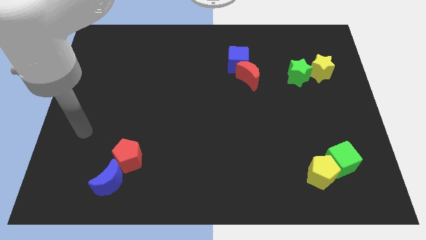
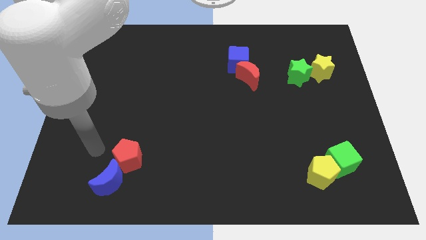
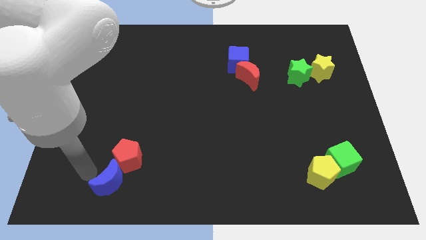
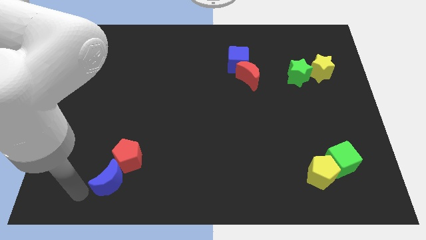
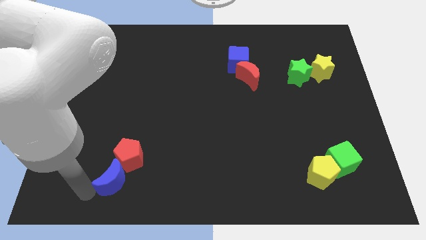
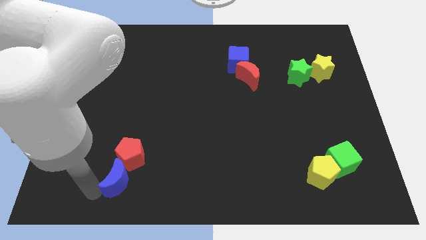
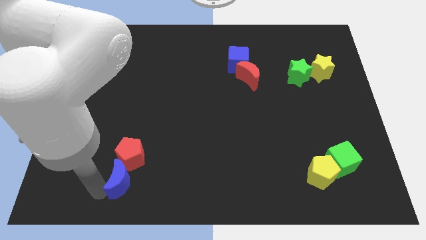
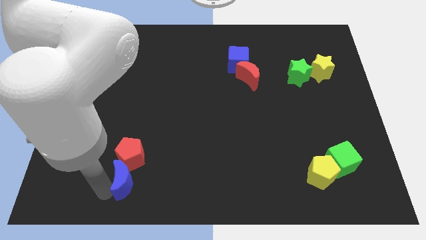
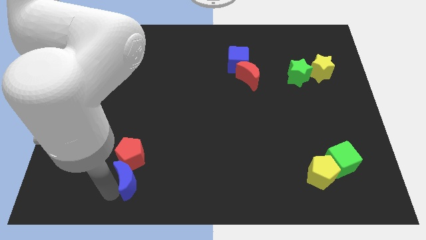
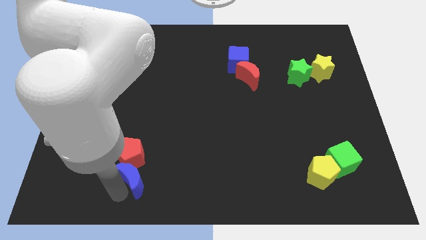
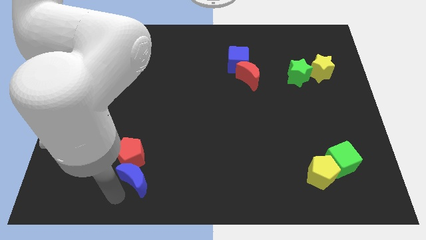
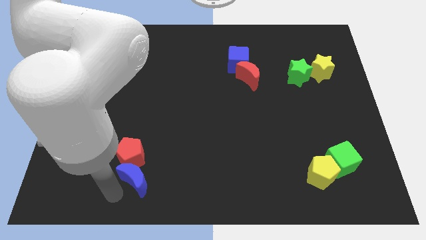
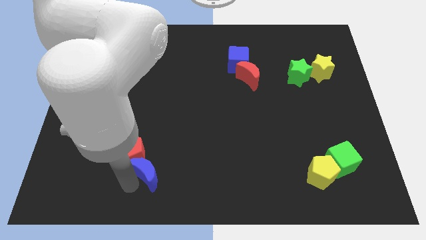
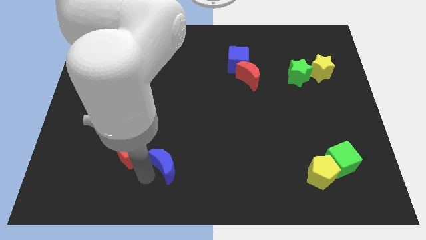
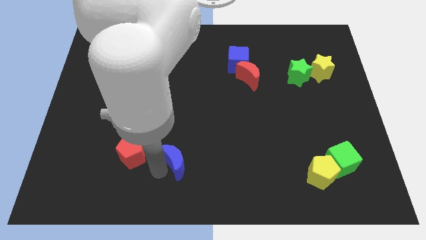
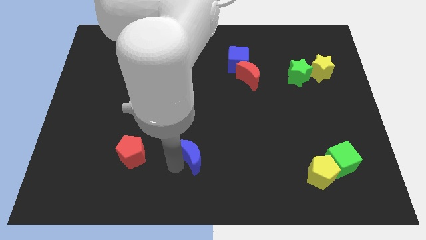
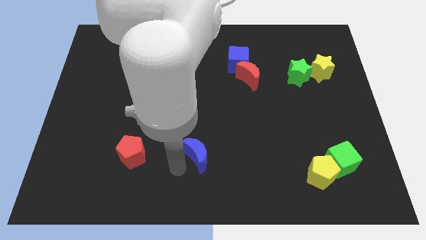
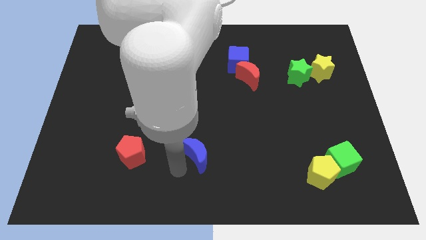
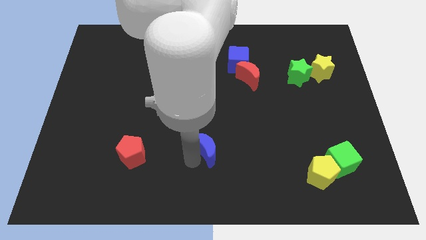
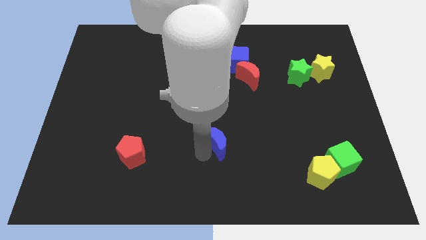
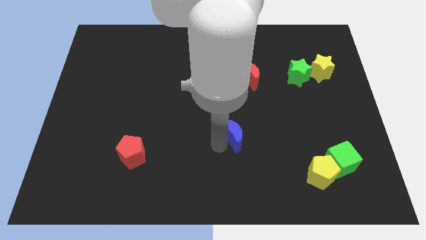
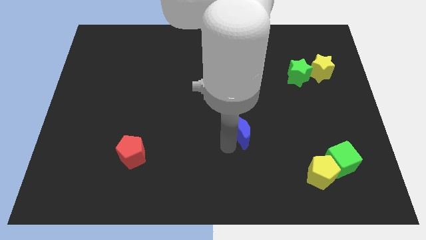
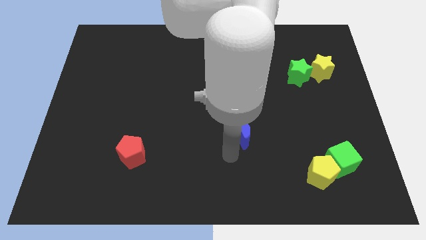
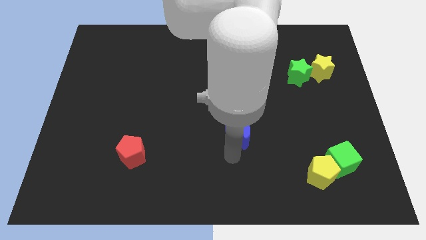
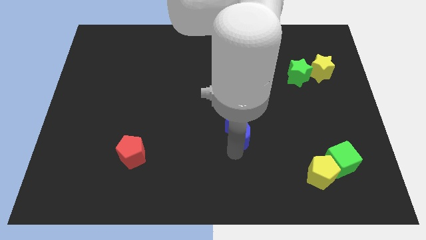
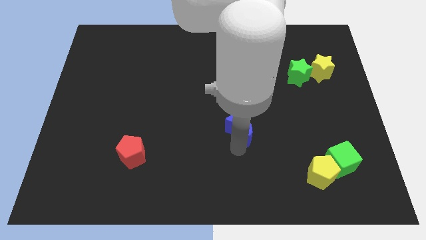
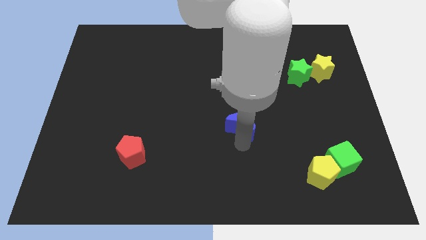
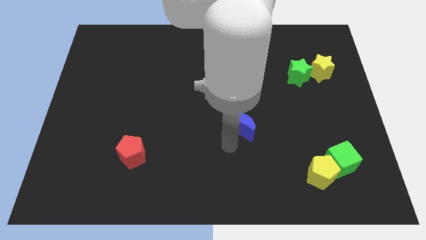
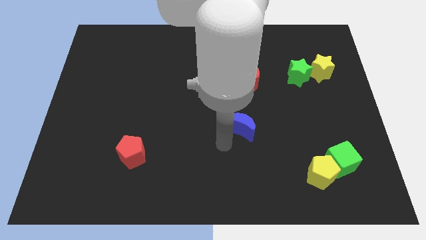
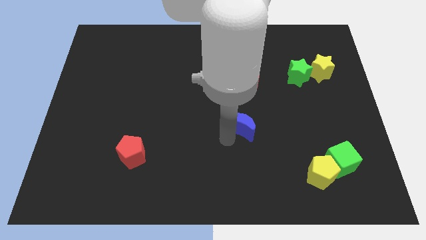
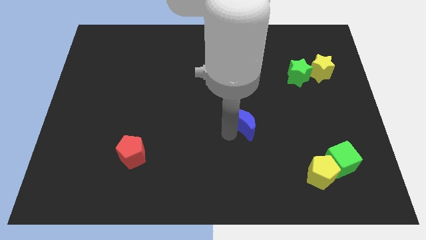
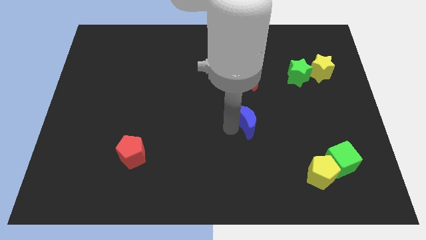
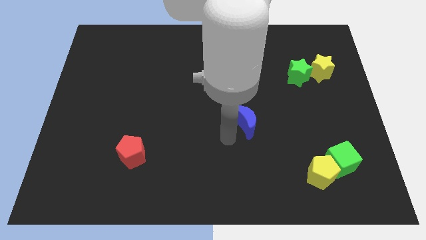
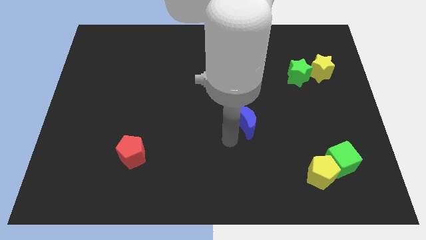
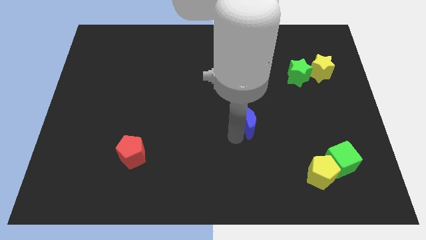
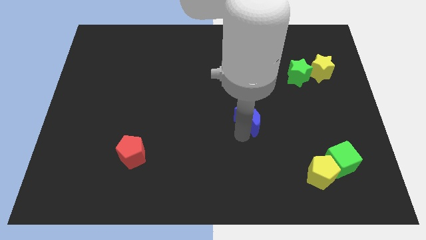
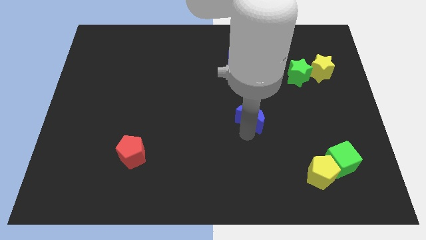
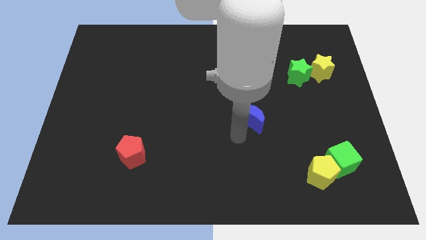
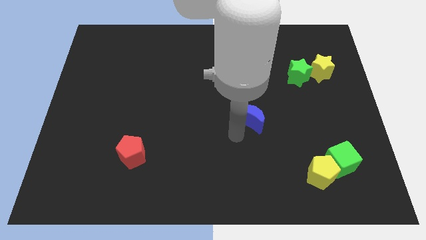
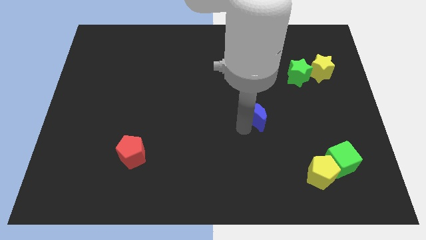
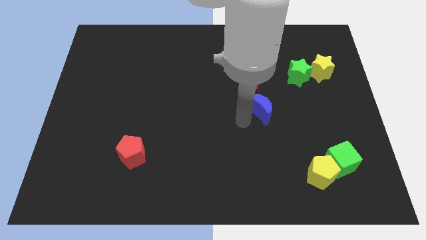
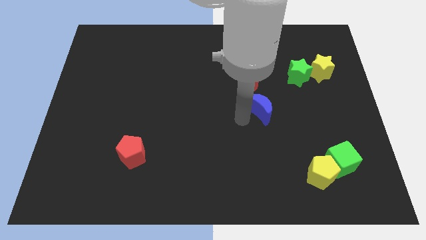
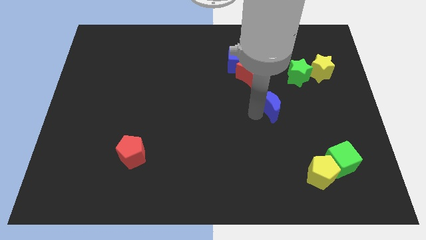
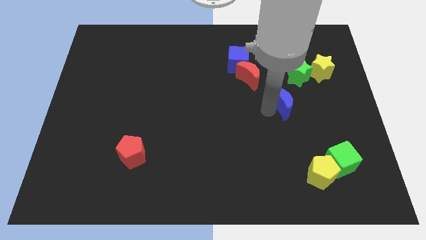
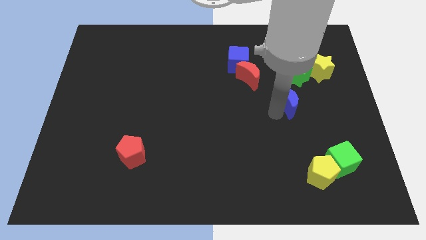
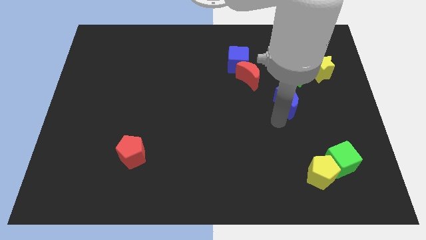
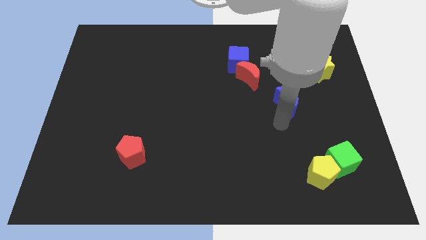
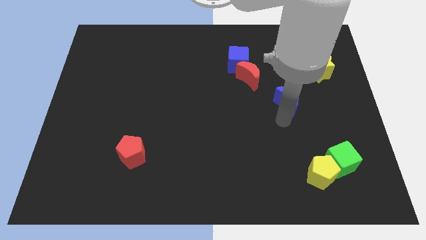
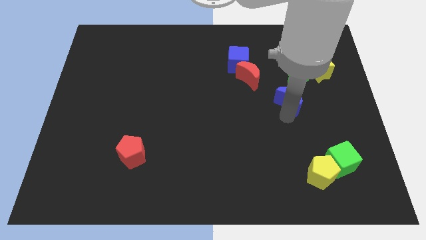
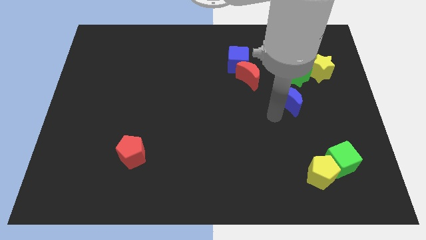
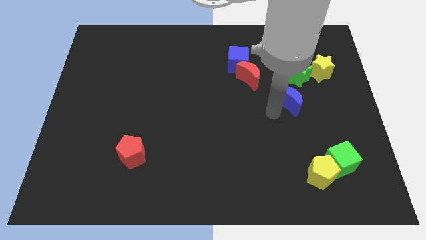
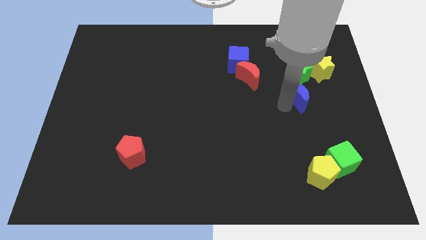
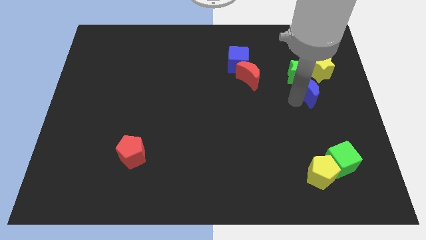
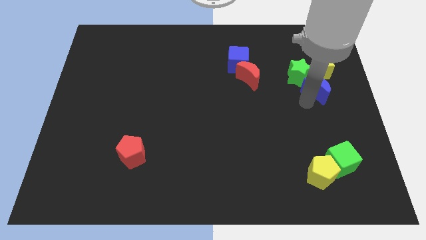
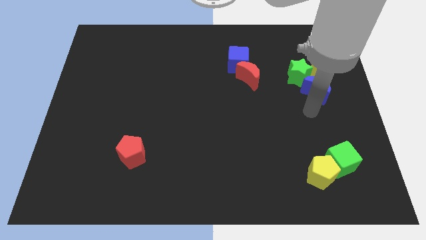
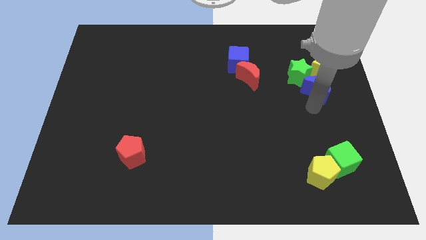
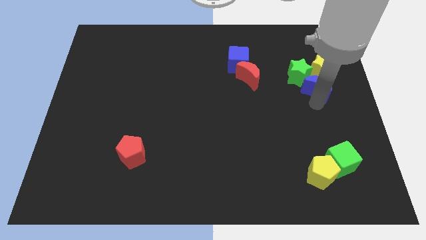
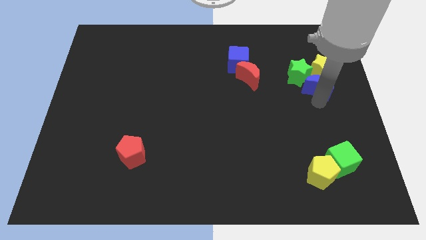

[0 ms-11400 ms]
push the blue moon next to the yellow star

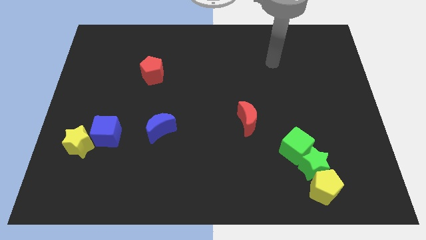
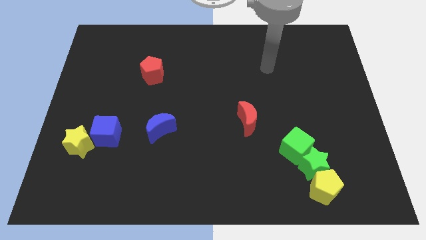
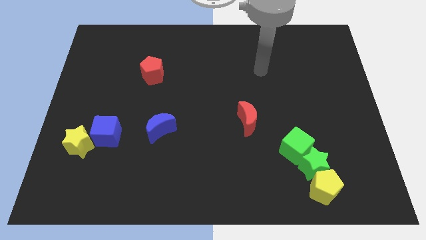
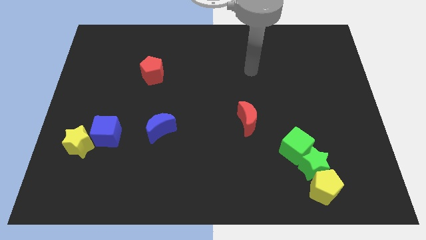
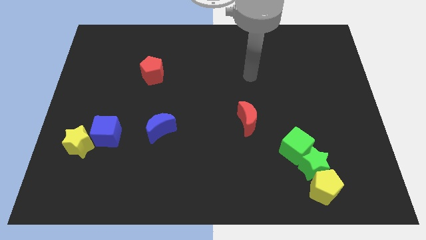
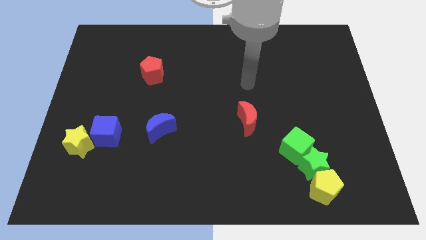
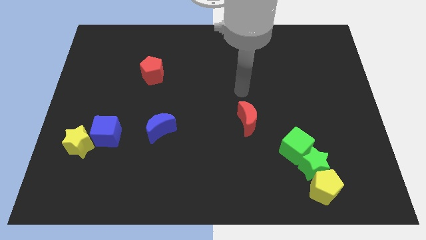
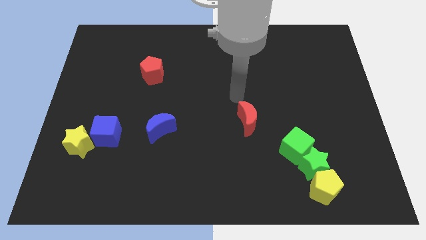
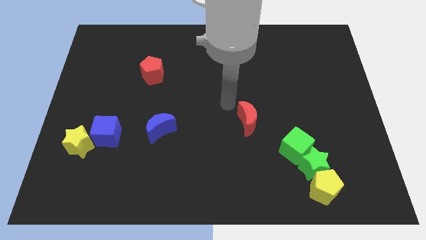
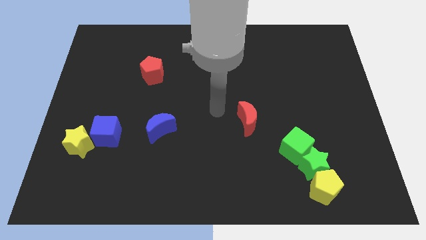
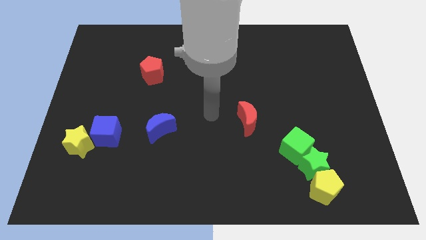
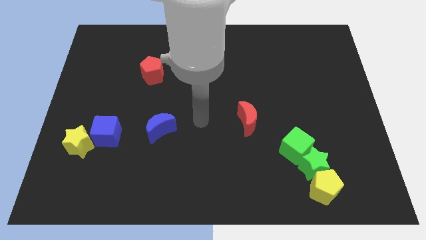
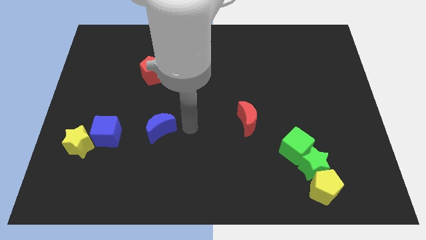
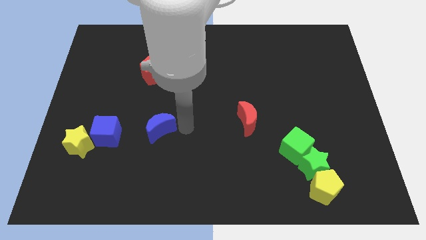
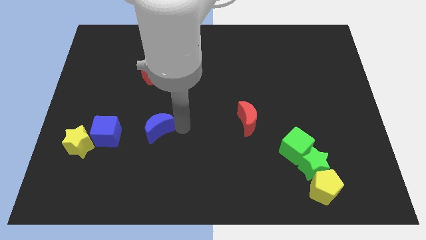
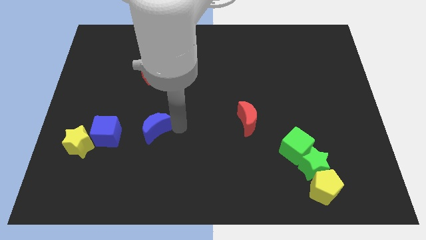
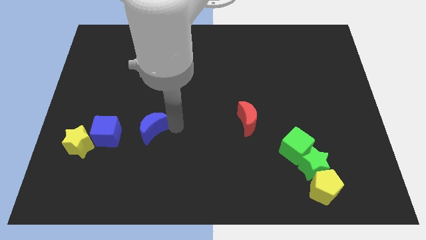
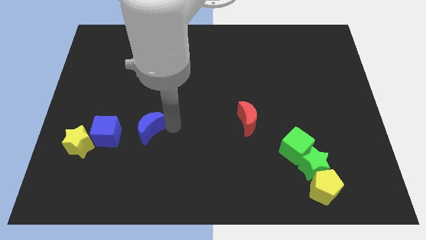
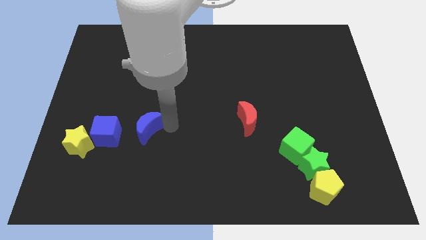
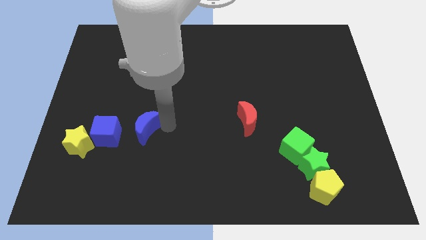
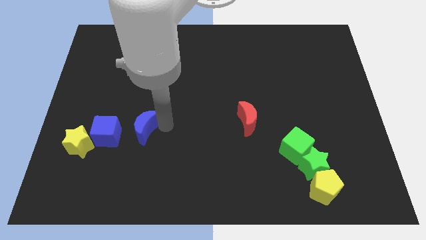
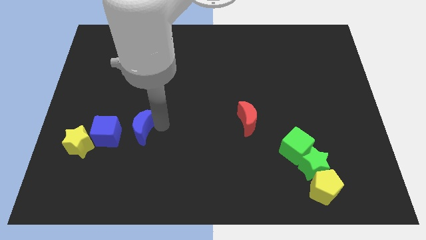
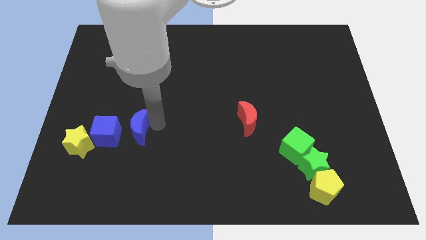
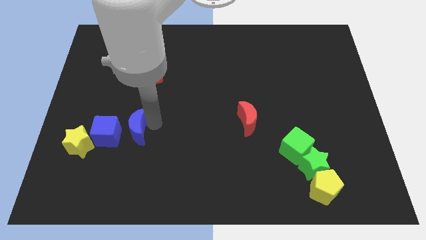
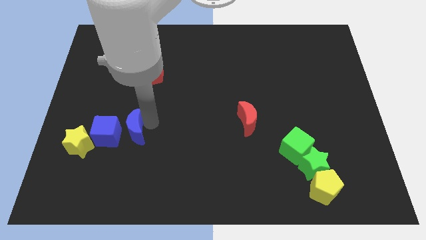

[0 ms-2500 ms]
put the blue moon close to the blue cube
